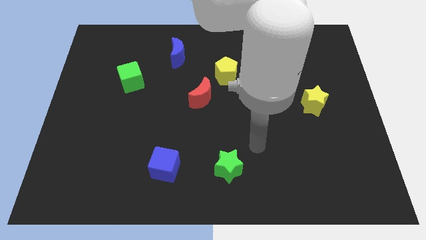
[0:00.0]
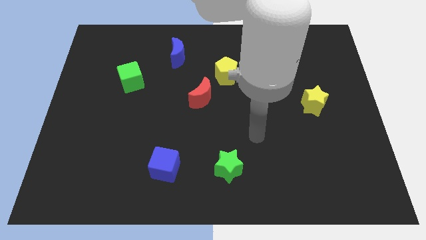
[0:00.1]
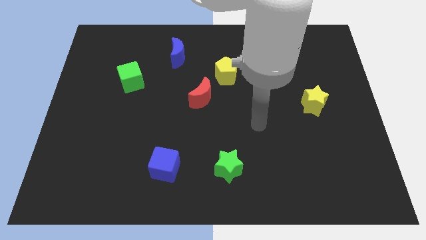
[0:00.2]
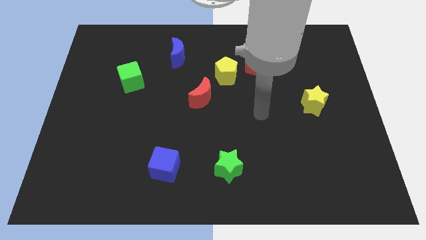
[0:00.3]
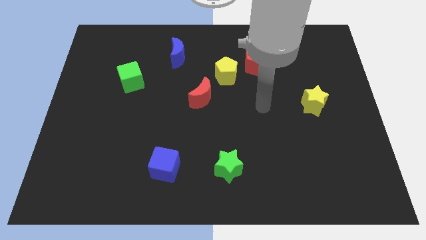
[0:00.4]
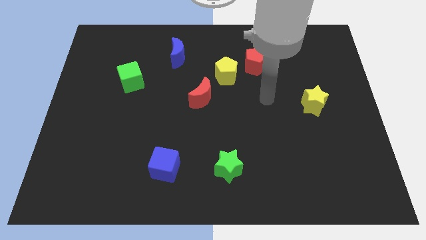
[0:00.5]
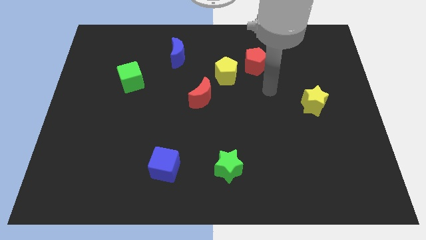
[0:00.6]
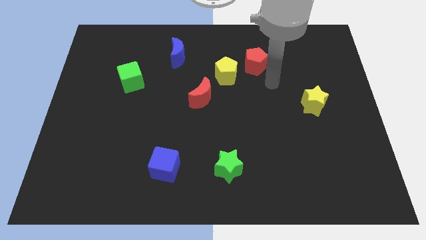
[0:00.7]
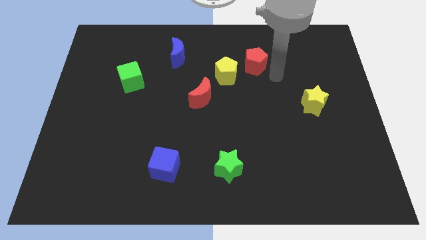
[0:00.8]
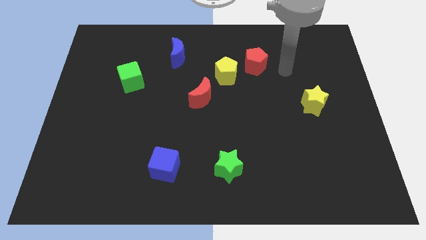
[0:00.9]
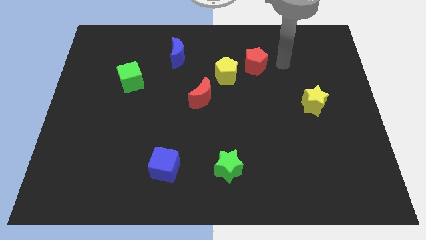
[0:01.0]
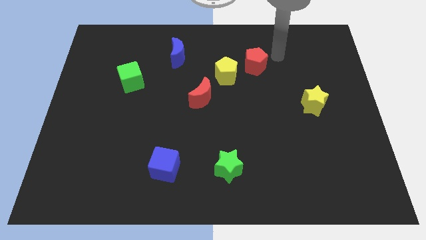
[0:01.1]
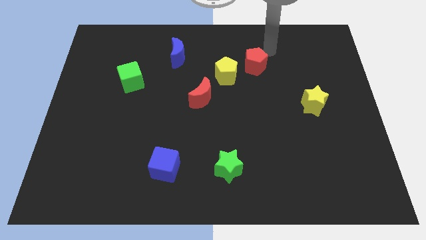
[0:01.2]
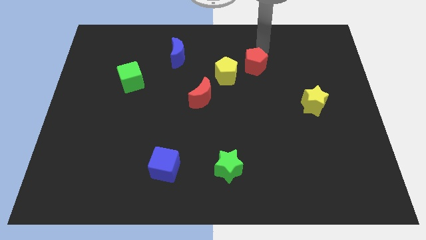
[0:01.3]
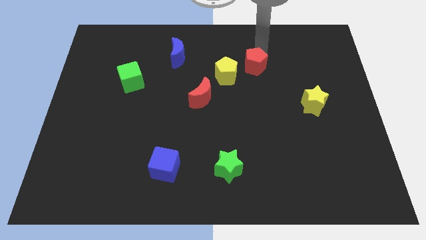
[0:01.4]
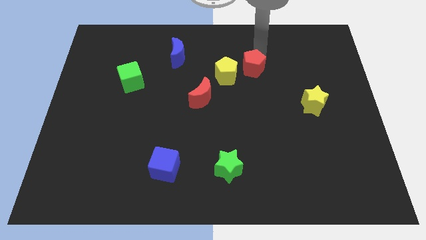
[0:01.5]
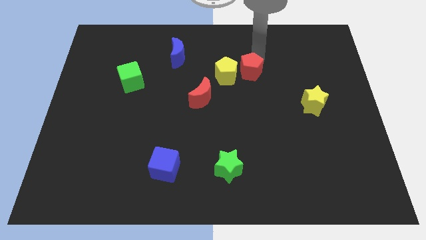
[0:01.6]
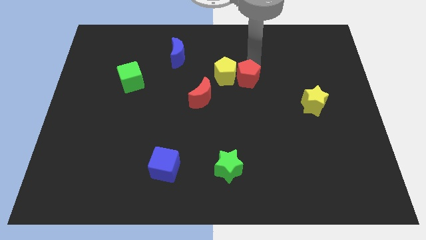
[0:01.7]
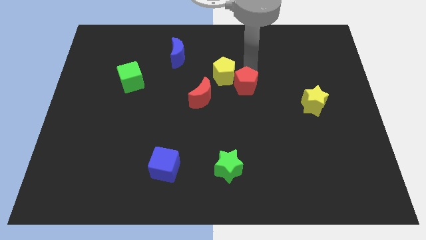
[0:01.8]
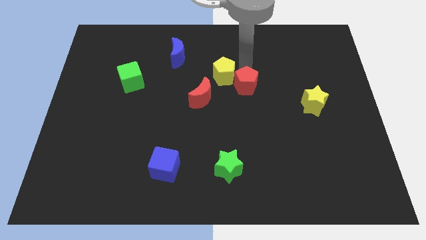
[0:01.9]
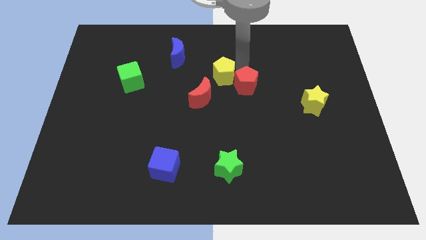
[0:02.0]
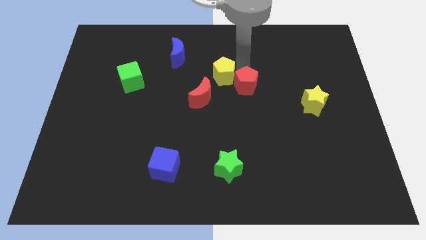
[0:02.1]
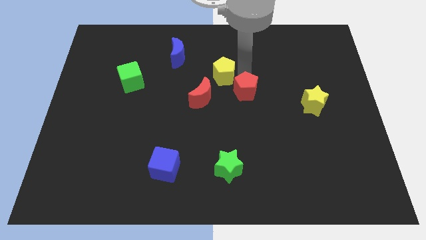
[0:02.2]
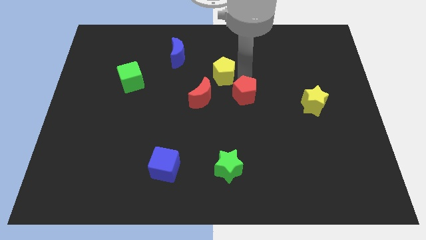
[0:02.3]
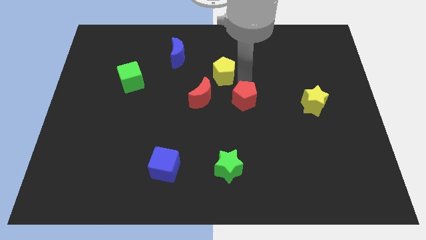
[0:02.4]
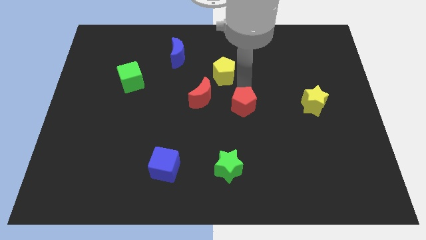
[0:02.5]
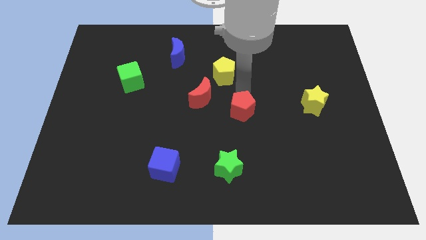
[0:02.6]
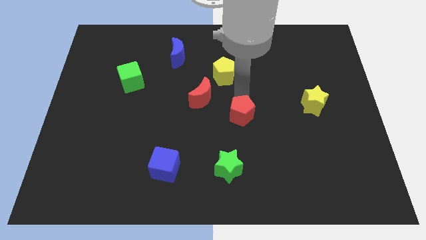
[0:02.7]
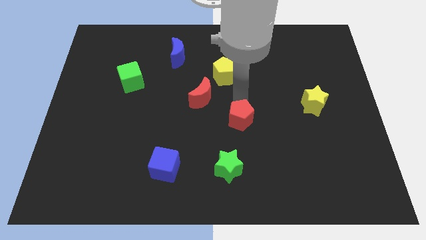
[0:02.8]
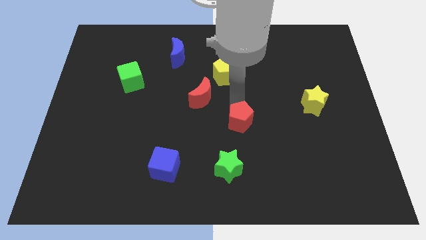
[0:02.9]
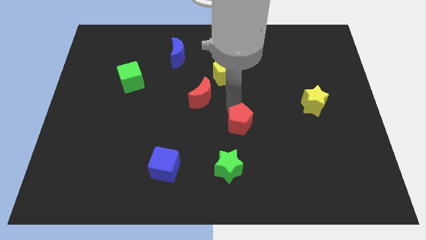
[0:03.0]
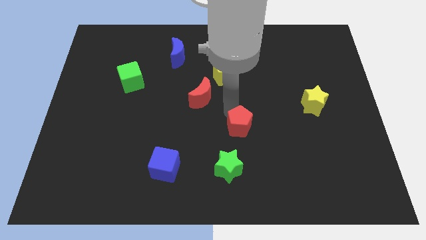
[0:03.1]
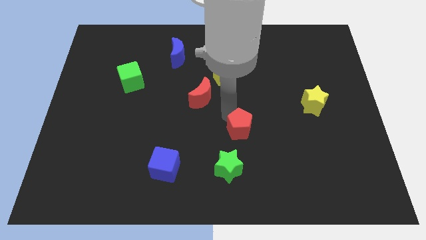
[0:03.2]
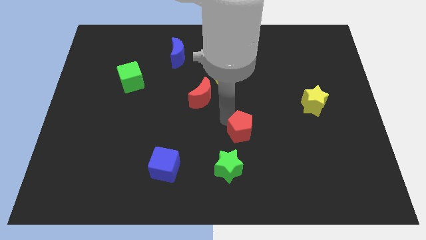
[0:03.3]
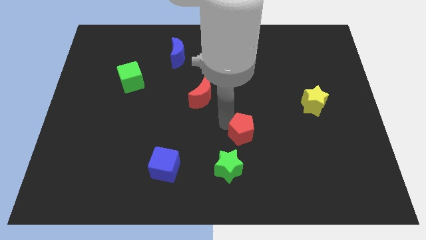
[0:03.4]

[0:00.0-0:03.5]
push the red pentagon downwards

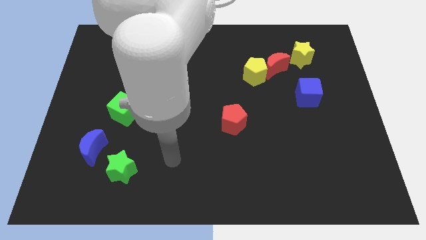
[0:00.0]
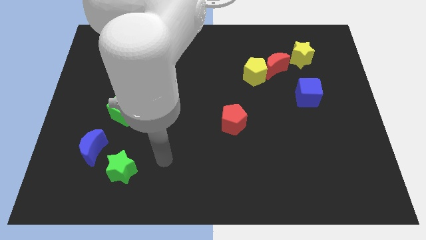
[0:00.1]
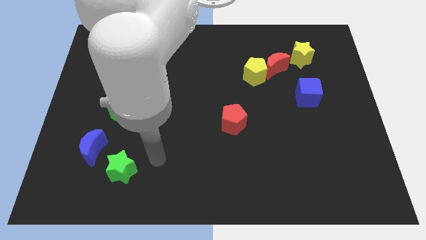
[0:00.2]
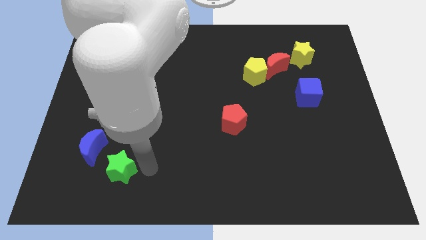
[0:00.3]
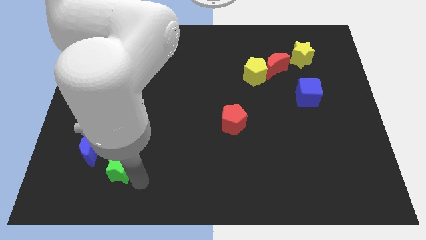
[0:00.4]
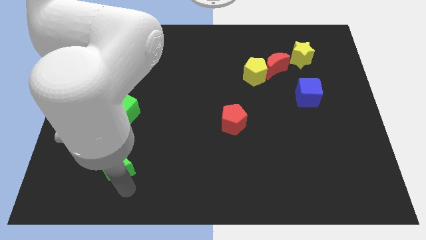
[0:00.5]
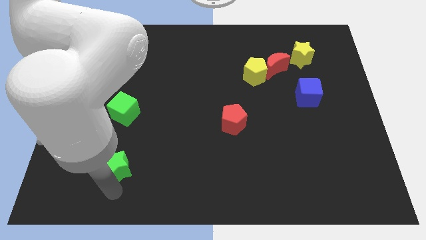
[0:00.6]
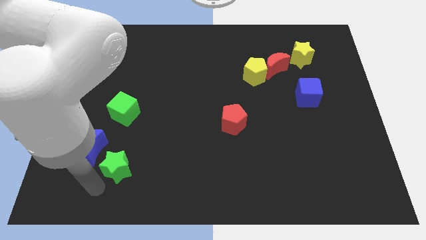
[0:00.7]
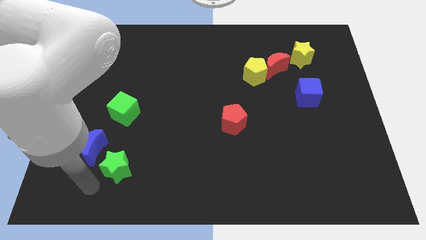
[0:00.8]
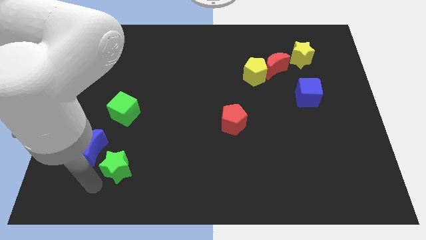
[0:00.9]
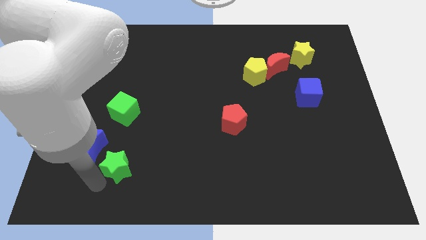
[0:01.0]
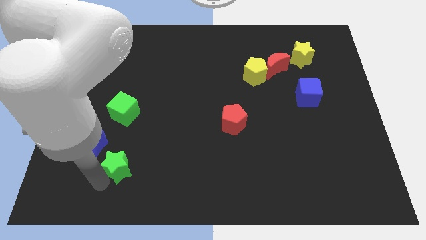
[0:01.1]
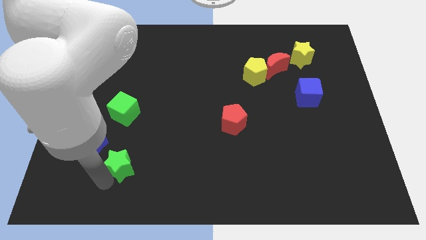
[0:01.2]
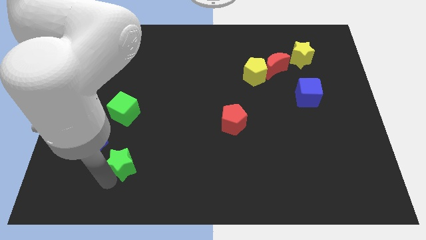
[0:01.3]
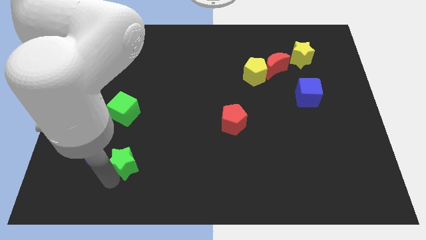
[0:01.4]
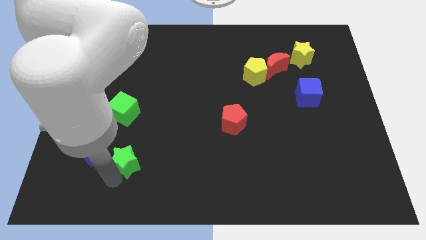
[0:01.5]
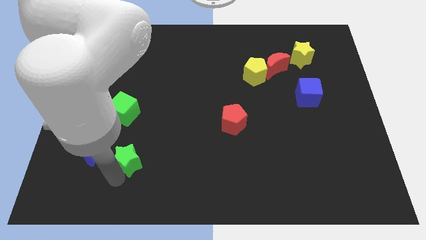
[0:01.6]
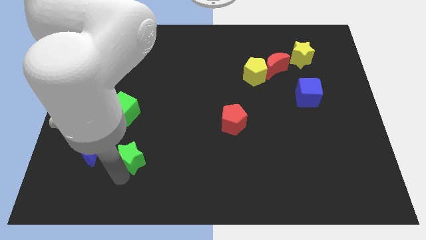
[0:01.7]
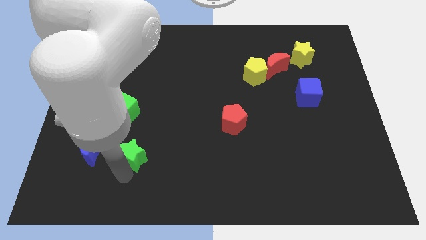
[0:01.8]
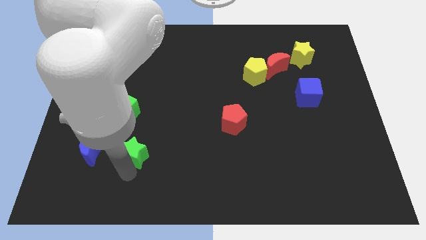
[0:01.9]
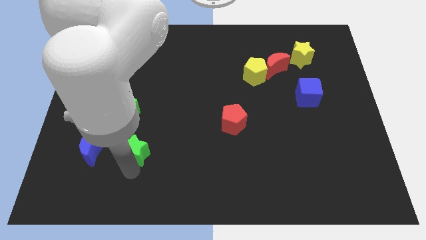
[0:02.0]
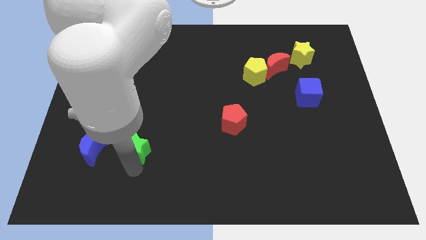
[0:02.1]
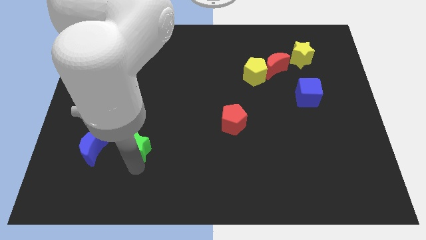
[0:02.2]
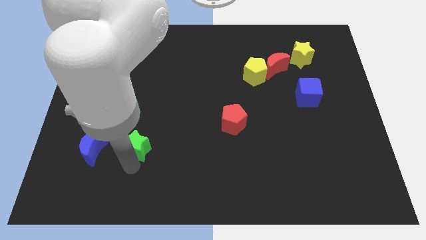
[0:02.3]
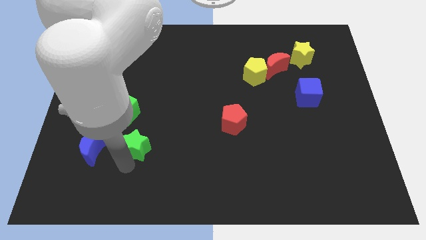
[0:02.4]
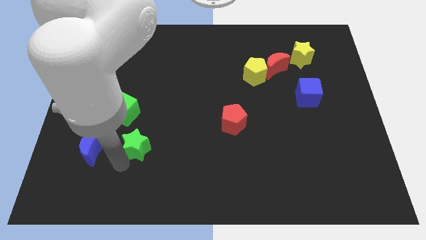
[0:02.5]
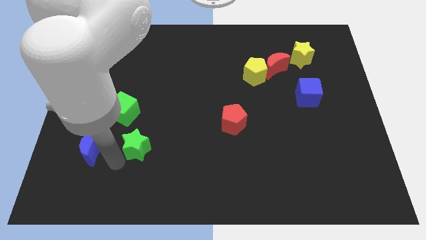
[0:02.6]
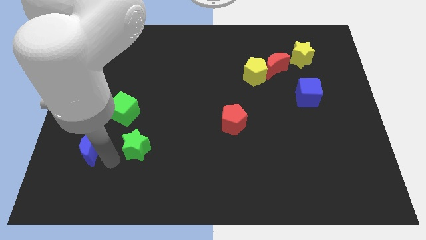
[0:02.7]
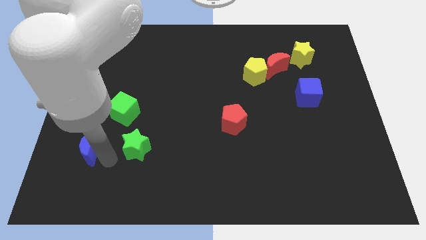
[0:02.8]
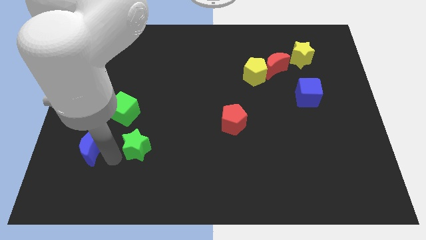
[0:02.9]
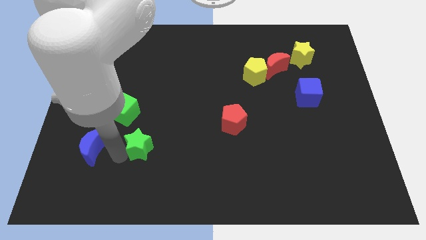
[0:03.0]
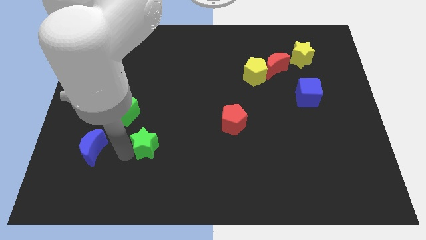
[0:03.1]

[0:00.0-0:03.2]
slightly move the green star diagonally up and right

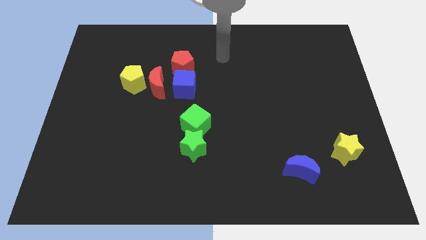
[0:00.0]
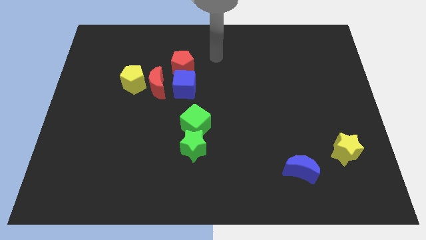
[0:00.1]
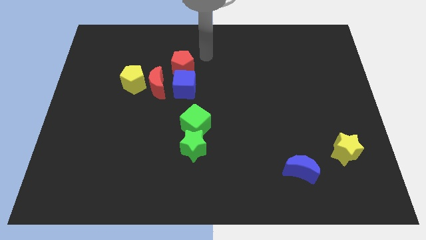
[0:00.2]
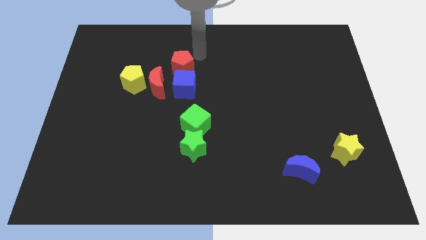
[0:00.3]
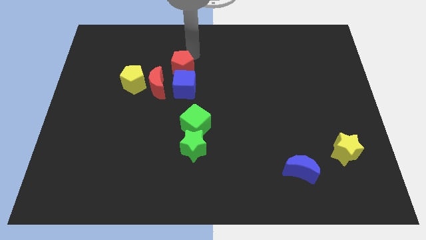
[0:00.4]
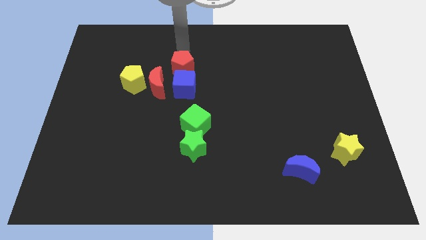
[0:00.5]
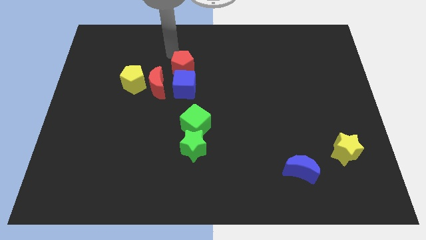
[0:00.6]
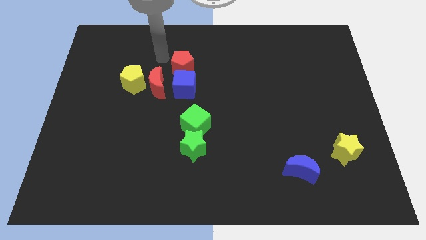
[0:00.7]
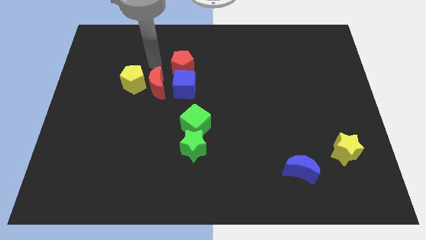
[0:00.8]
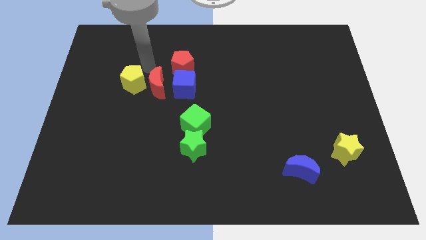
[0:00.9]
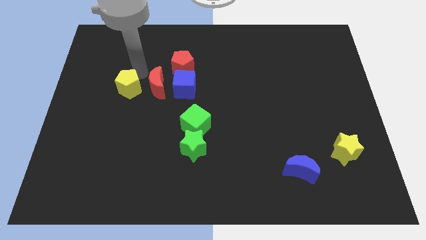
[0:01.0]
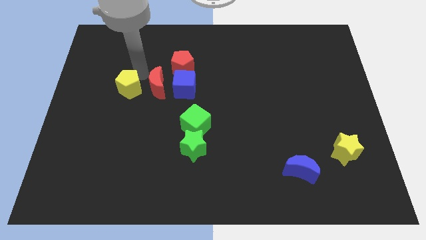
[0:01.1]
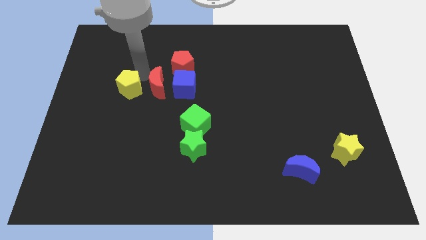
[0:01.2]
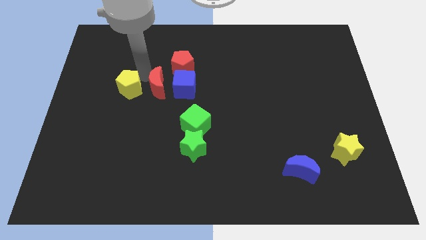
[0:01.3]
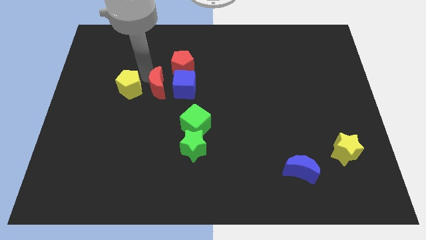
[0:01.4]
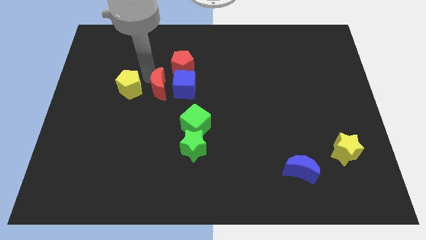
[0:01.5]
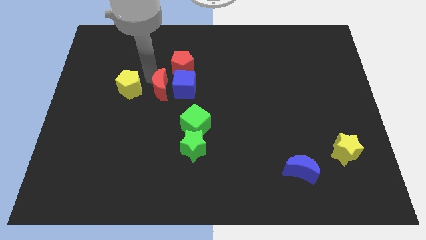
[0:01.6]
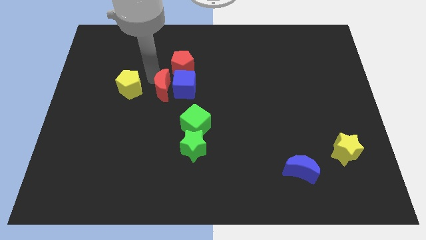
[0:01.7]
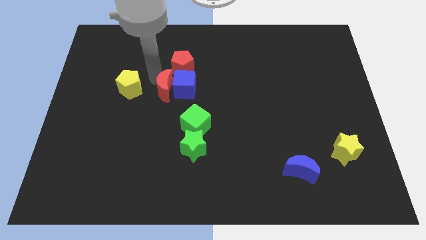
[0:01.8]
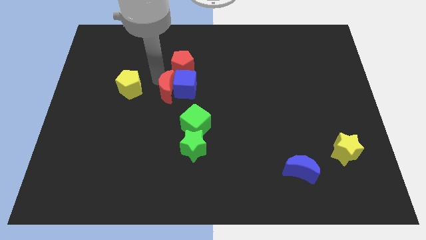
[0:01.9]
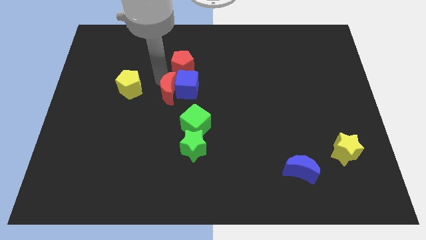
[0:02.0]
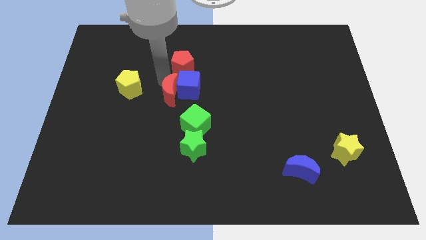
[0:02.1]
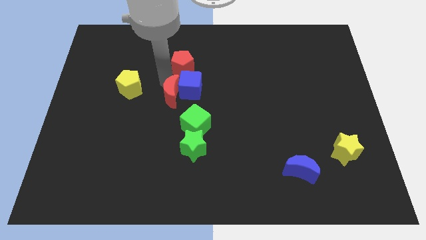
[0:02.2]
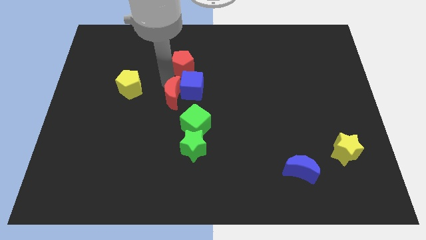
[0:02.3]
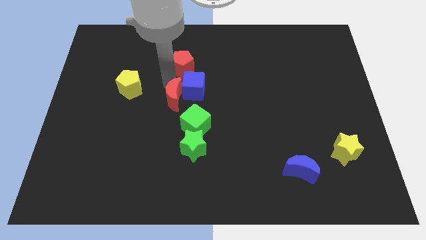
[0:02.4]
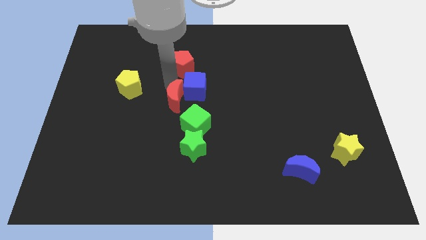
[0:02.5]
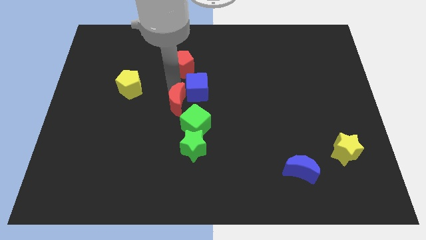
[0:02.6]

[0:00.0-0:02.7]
slide the red moon down and to the right a bit
